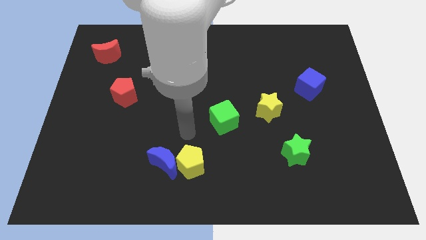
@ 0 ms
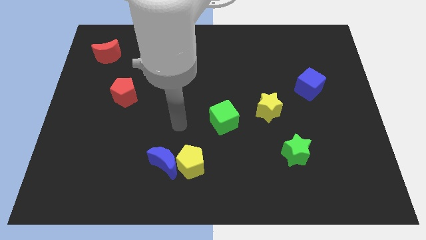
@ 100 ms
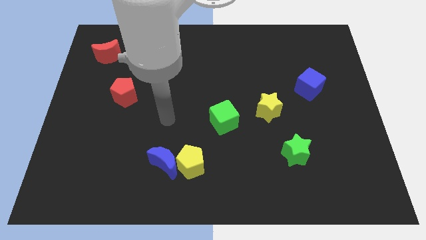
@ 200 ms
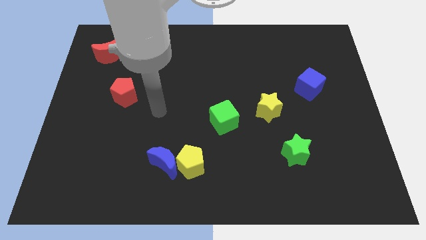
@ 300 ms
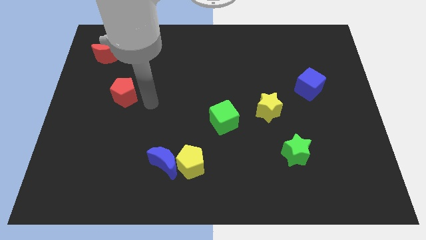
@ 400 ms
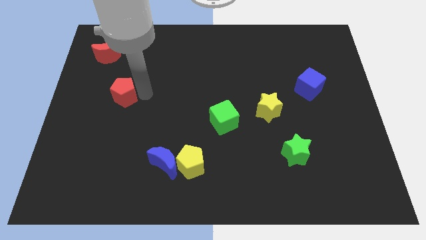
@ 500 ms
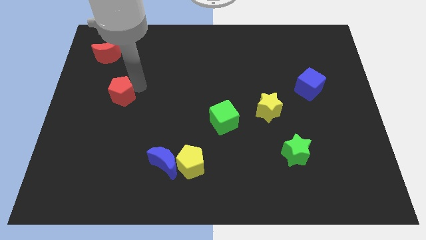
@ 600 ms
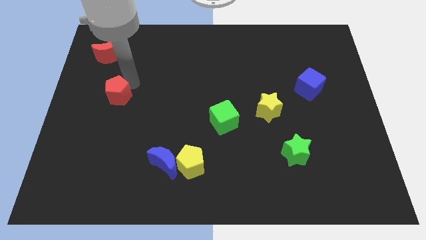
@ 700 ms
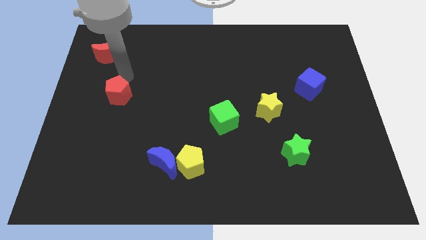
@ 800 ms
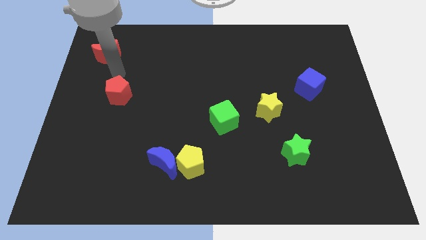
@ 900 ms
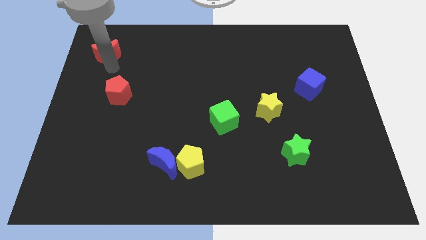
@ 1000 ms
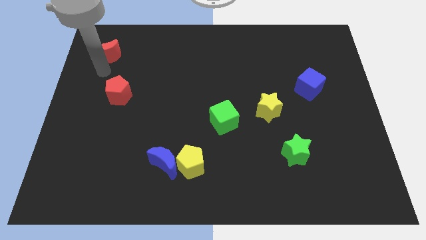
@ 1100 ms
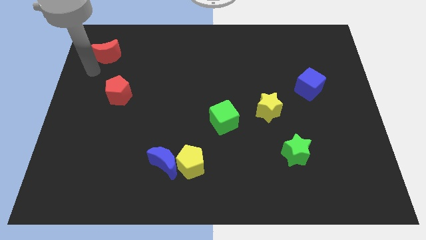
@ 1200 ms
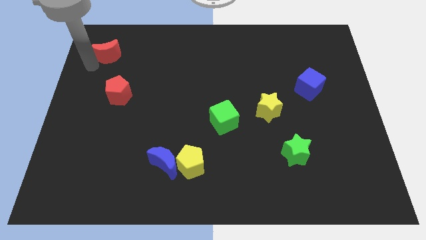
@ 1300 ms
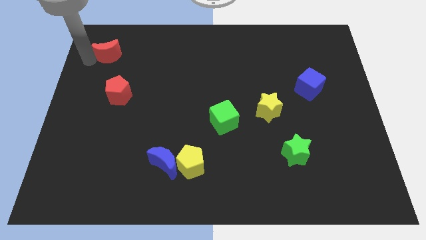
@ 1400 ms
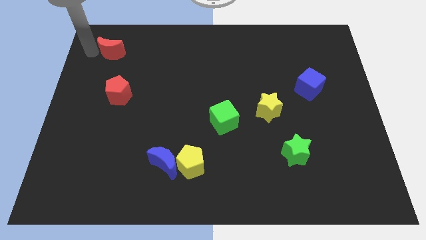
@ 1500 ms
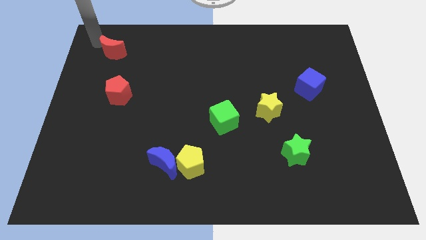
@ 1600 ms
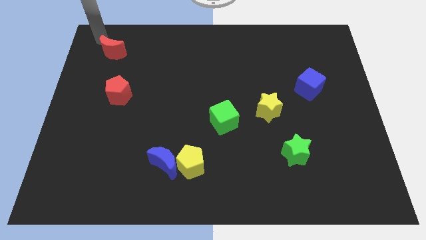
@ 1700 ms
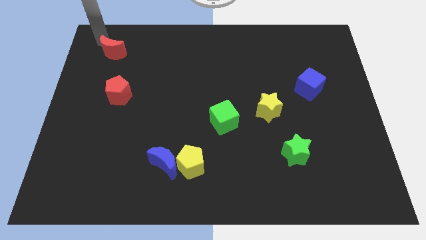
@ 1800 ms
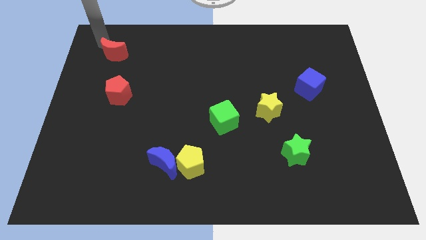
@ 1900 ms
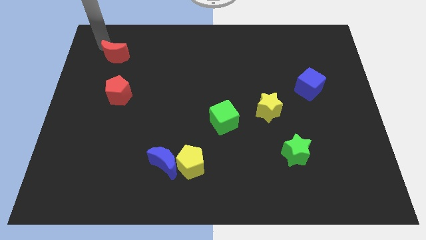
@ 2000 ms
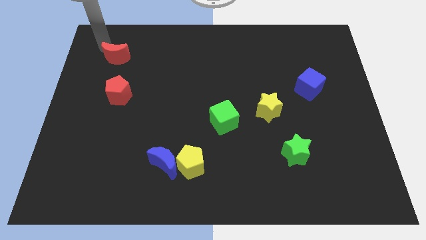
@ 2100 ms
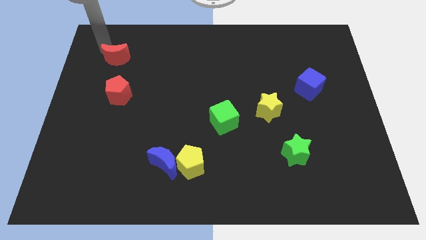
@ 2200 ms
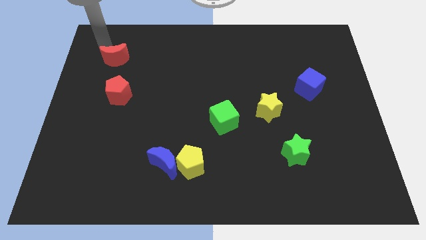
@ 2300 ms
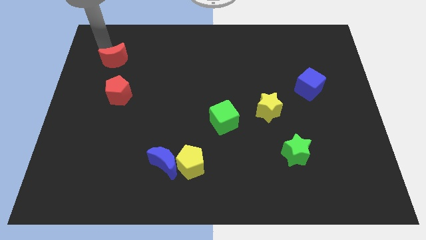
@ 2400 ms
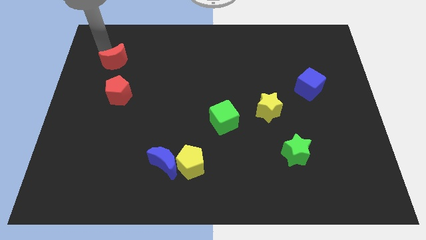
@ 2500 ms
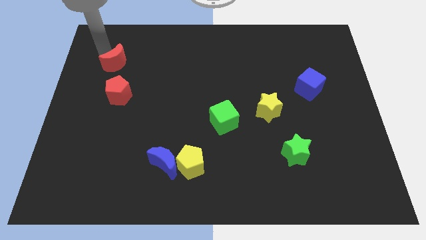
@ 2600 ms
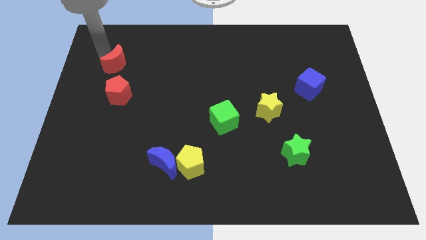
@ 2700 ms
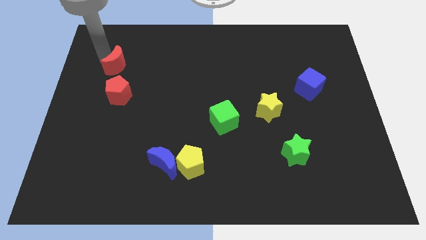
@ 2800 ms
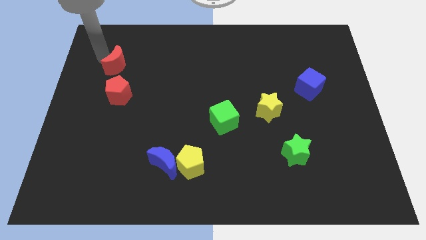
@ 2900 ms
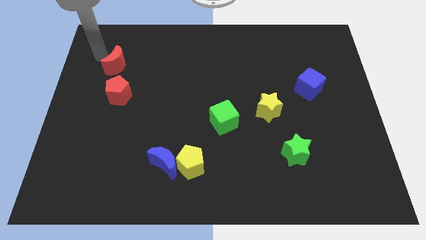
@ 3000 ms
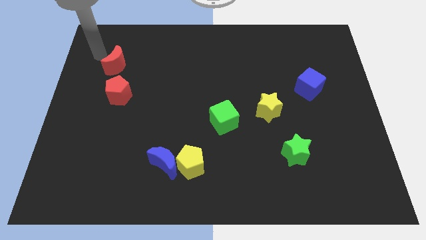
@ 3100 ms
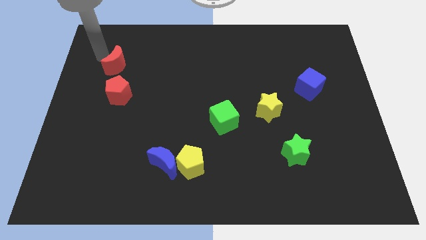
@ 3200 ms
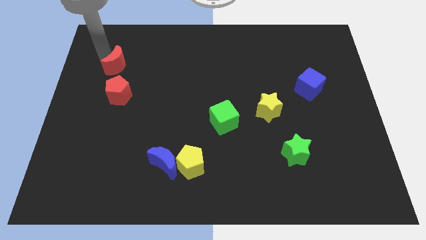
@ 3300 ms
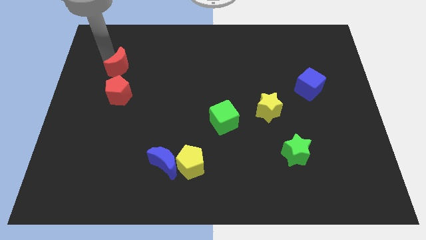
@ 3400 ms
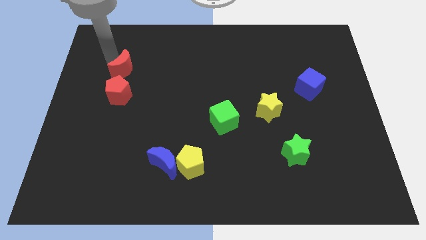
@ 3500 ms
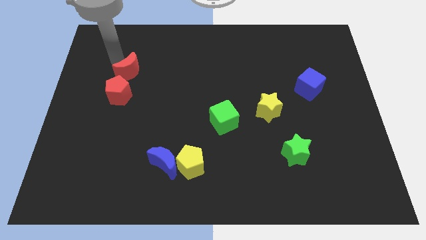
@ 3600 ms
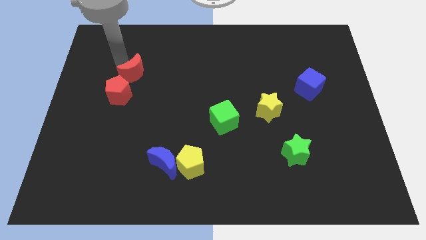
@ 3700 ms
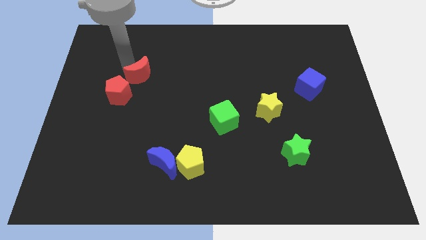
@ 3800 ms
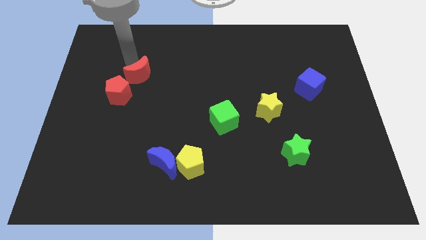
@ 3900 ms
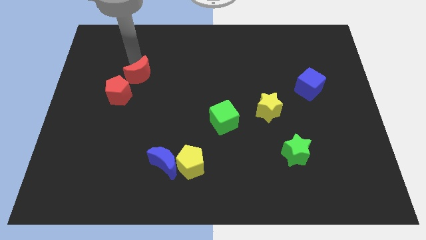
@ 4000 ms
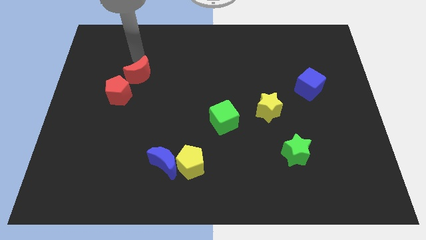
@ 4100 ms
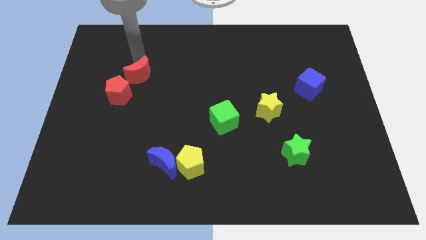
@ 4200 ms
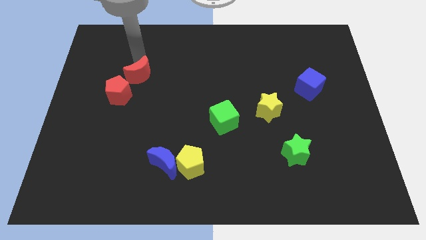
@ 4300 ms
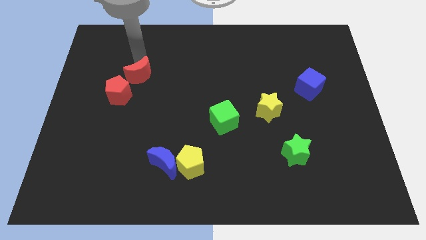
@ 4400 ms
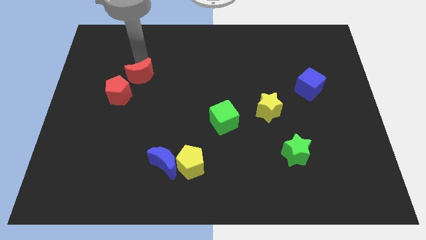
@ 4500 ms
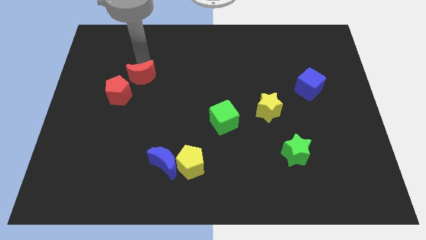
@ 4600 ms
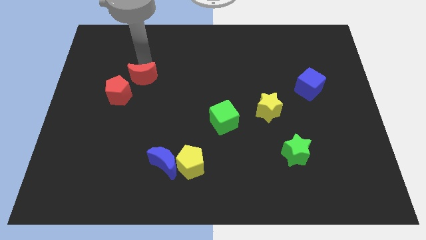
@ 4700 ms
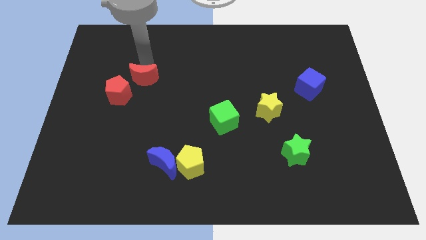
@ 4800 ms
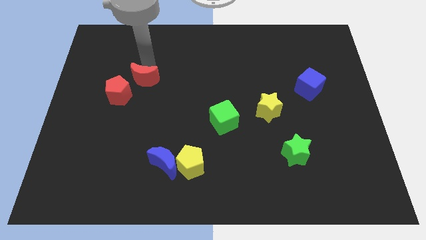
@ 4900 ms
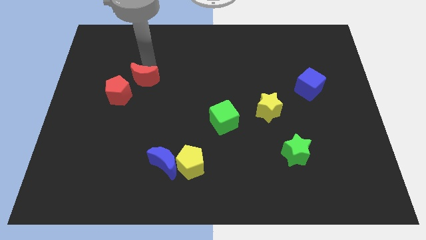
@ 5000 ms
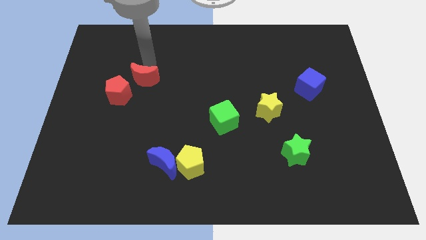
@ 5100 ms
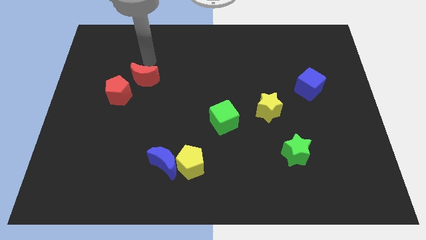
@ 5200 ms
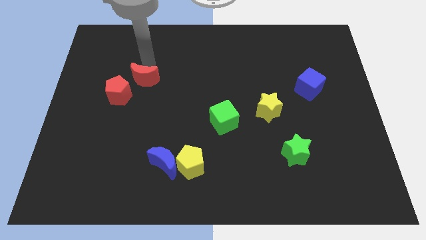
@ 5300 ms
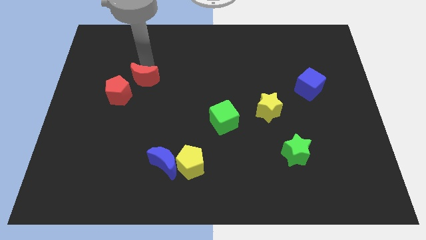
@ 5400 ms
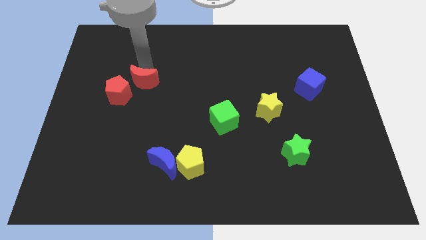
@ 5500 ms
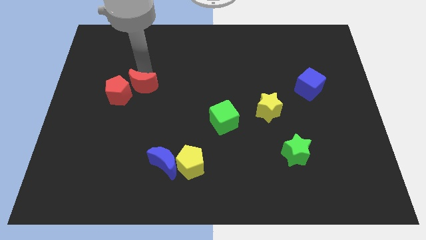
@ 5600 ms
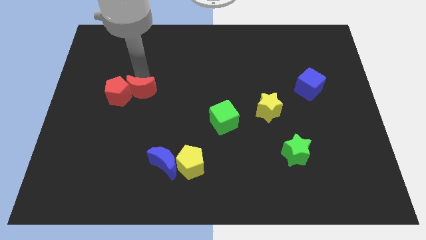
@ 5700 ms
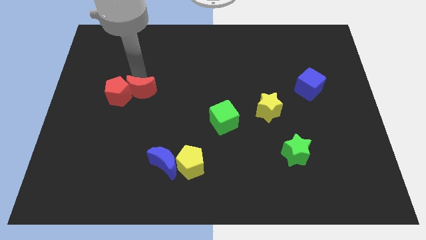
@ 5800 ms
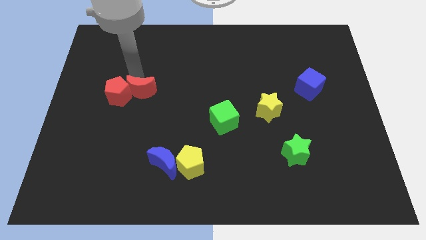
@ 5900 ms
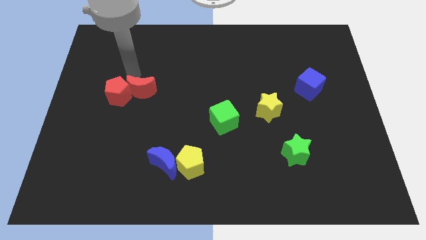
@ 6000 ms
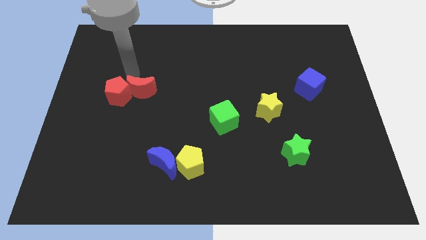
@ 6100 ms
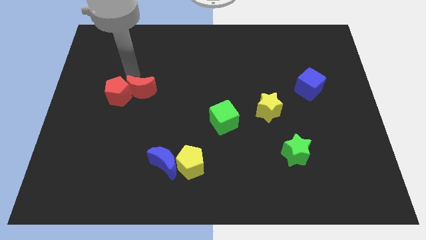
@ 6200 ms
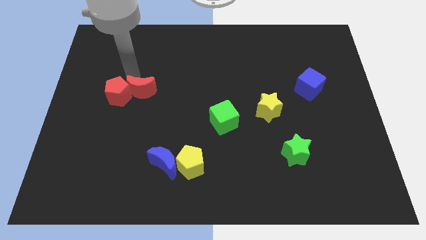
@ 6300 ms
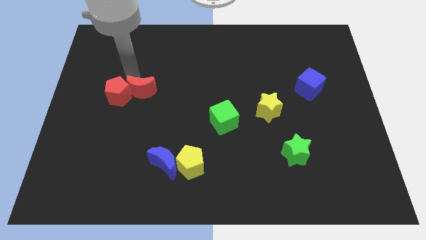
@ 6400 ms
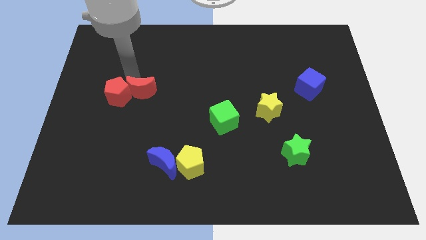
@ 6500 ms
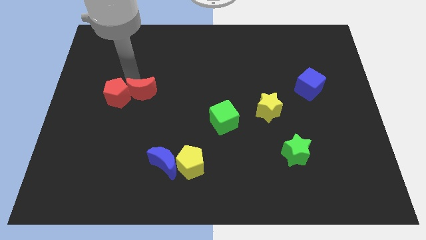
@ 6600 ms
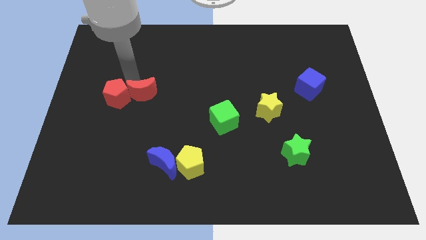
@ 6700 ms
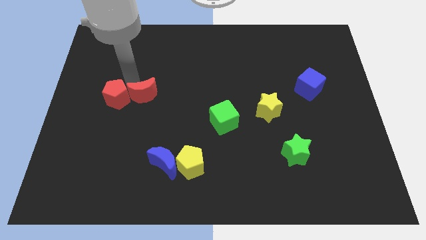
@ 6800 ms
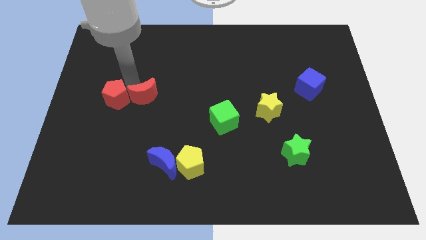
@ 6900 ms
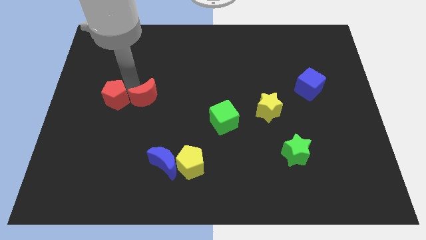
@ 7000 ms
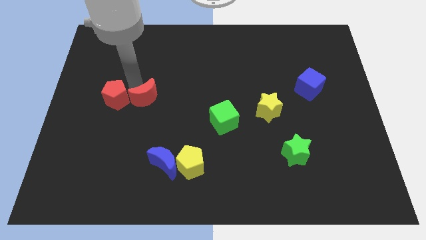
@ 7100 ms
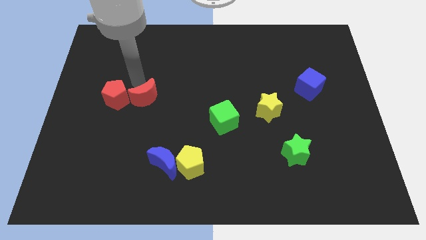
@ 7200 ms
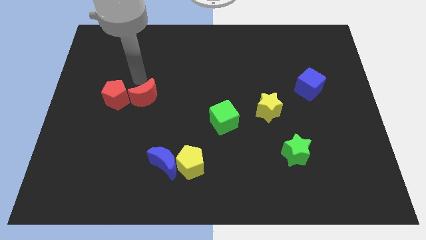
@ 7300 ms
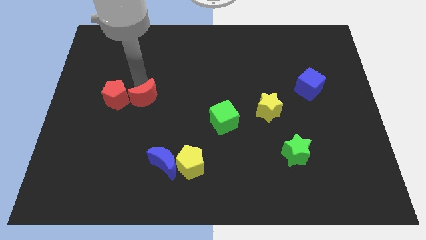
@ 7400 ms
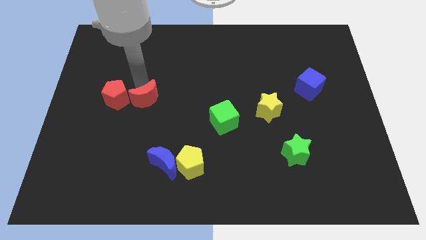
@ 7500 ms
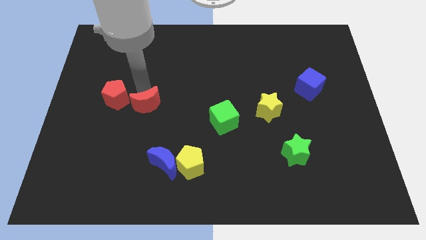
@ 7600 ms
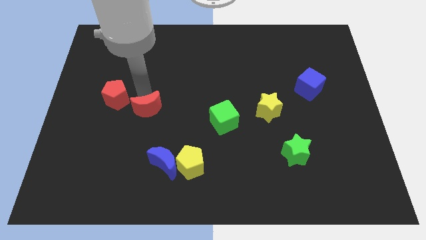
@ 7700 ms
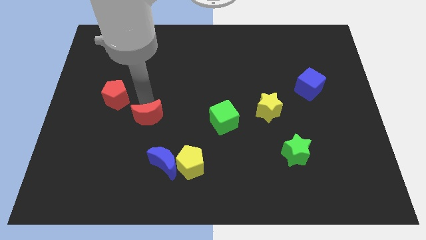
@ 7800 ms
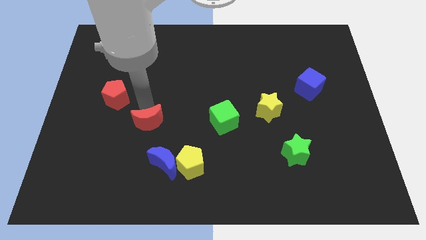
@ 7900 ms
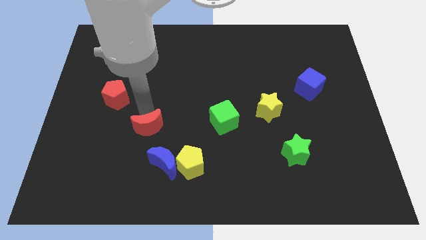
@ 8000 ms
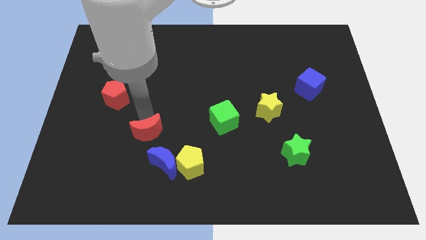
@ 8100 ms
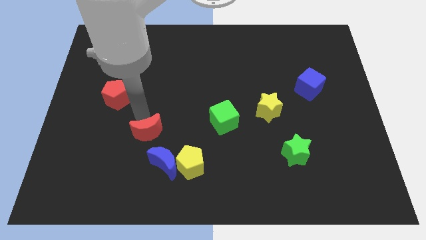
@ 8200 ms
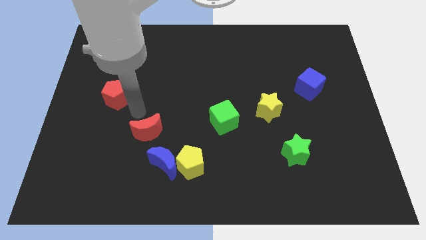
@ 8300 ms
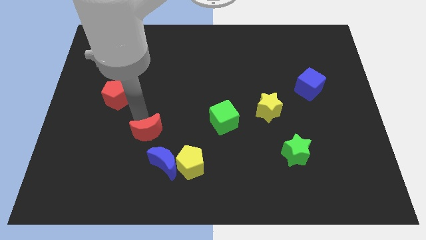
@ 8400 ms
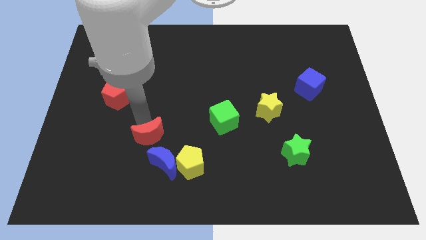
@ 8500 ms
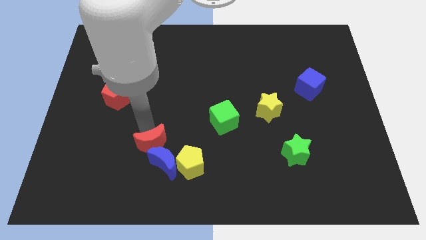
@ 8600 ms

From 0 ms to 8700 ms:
move the red moon towards the blue moon
